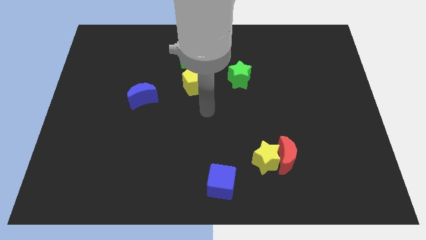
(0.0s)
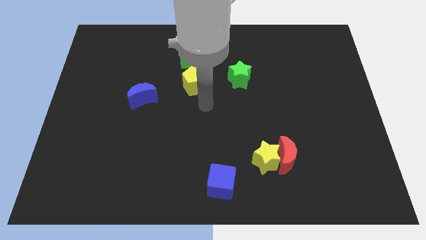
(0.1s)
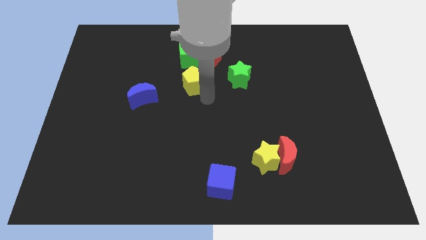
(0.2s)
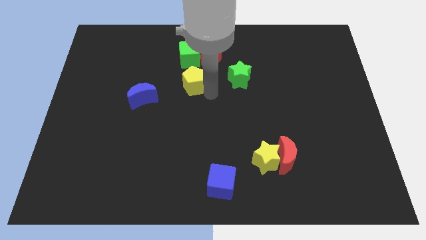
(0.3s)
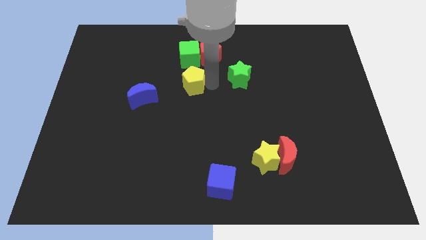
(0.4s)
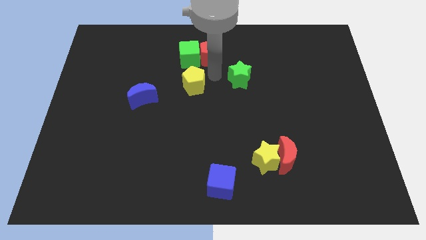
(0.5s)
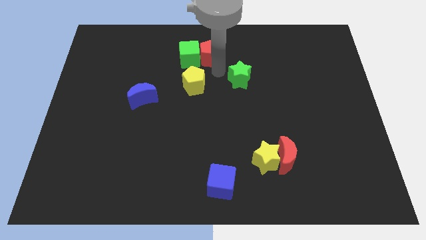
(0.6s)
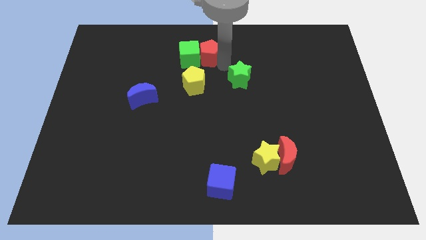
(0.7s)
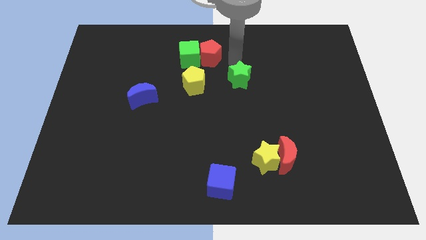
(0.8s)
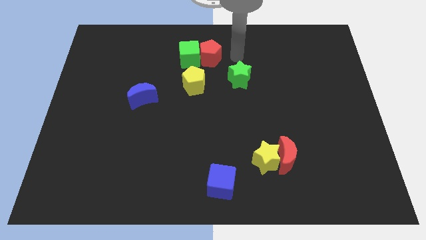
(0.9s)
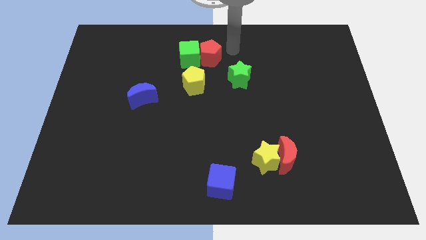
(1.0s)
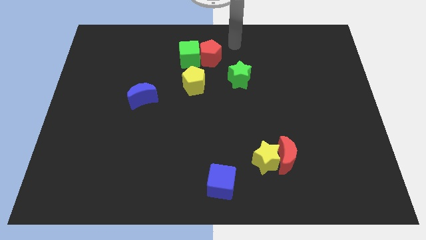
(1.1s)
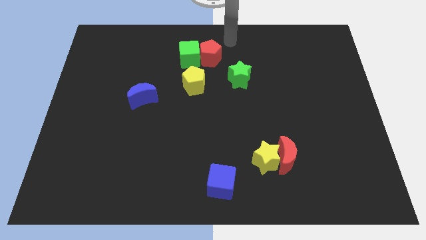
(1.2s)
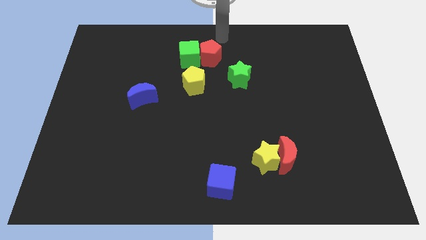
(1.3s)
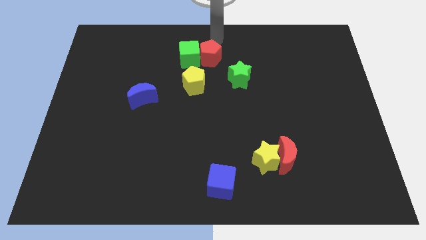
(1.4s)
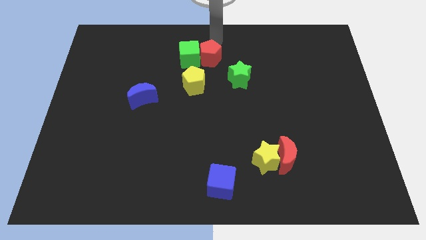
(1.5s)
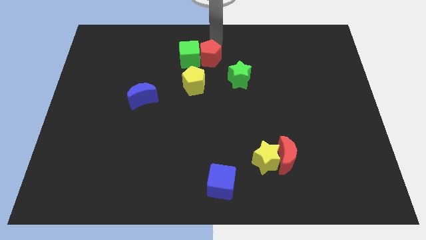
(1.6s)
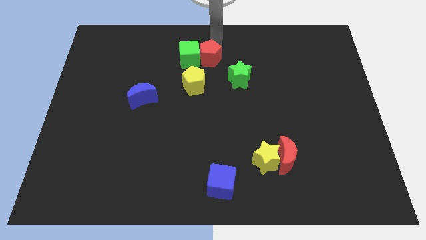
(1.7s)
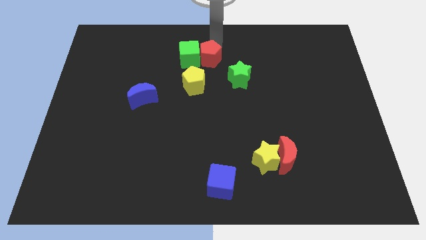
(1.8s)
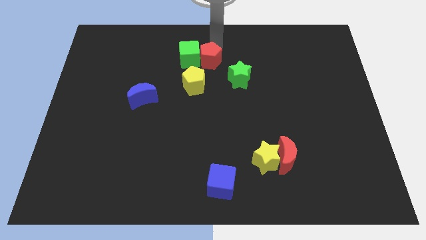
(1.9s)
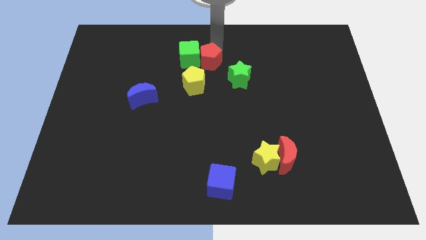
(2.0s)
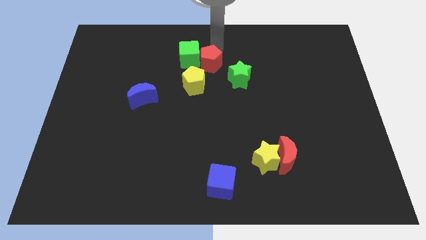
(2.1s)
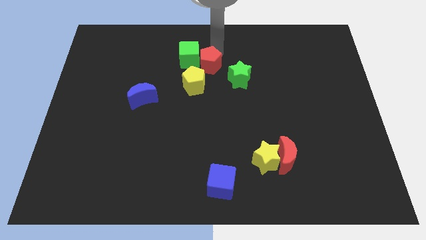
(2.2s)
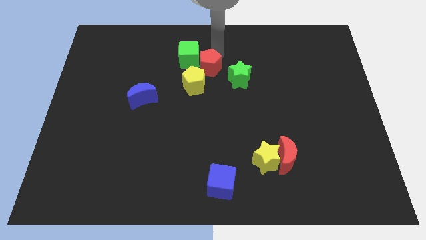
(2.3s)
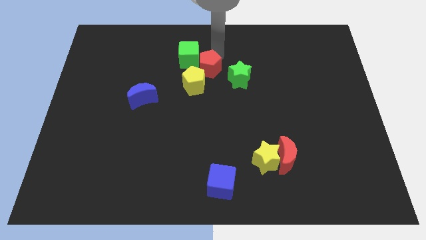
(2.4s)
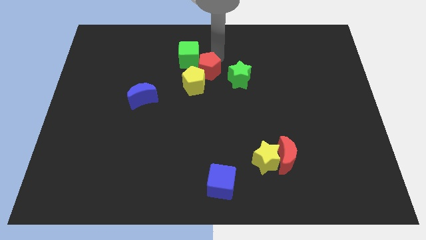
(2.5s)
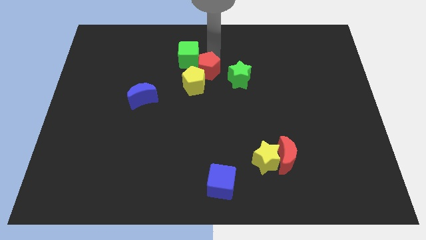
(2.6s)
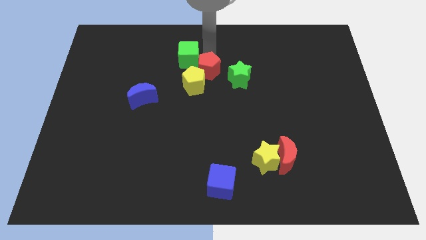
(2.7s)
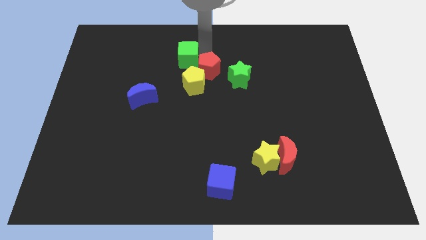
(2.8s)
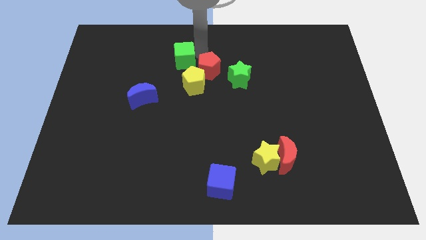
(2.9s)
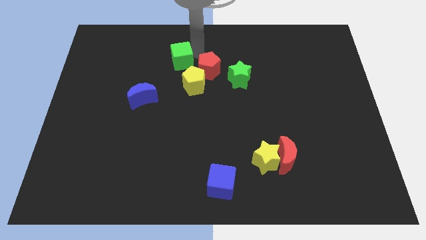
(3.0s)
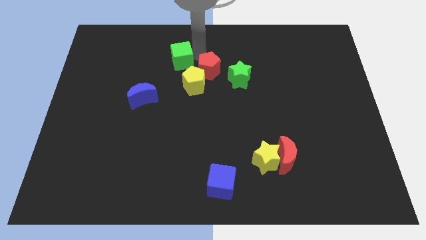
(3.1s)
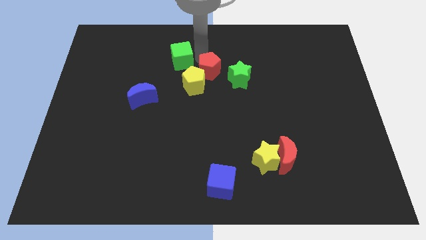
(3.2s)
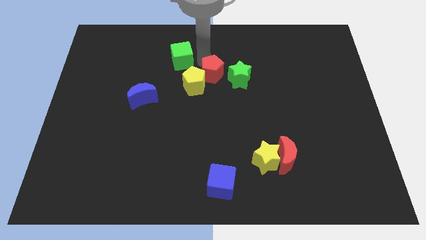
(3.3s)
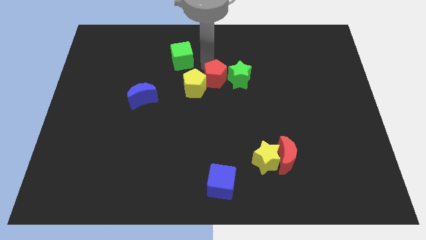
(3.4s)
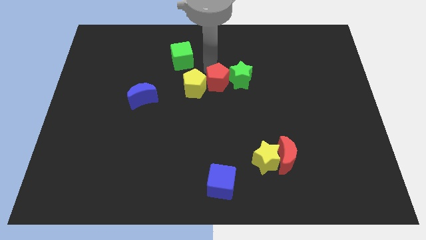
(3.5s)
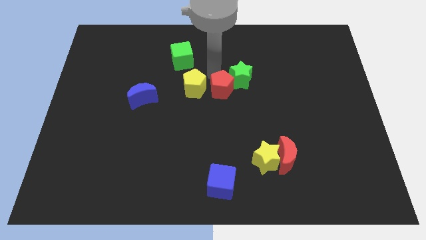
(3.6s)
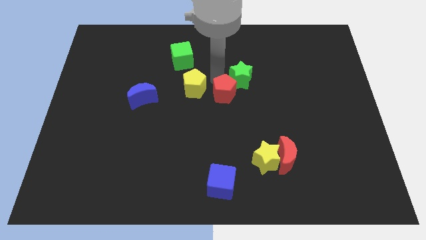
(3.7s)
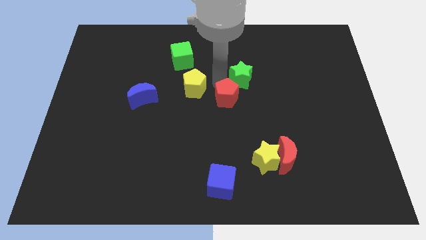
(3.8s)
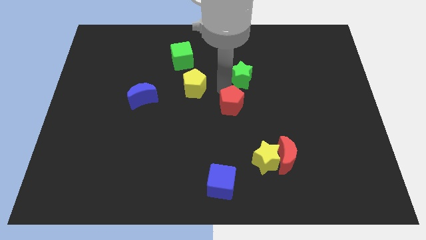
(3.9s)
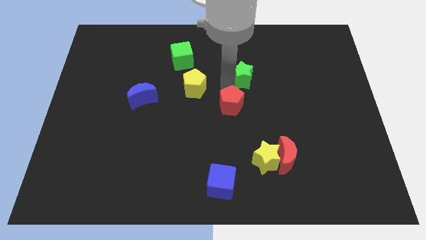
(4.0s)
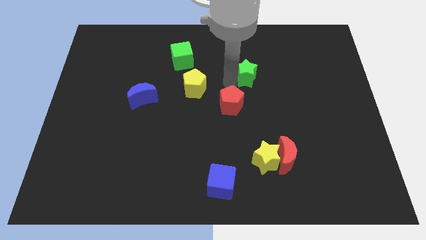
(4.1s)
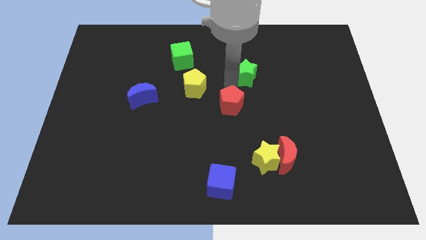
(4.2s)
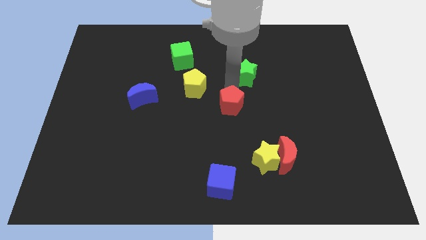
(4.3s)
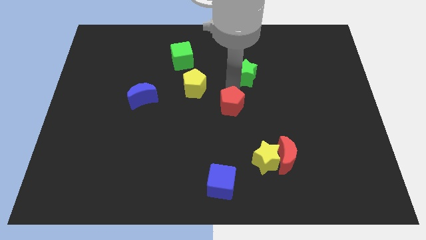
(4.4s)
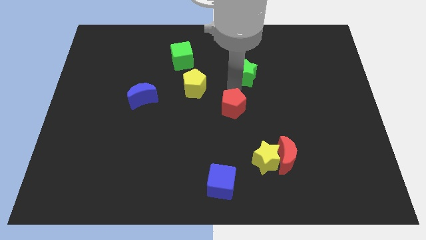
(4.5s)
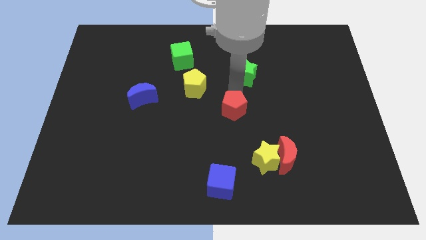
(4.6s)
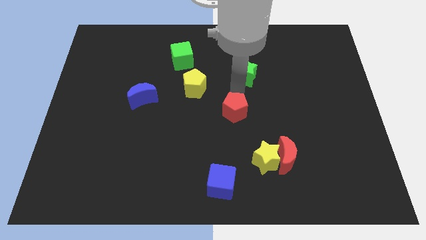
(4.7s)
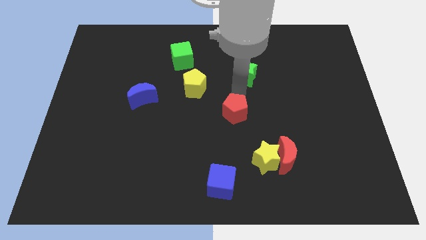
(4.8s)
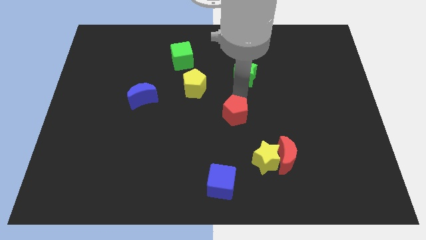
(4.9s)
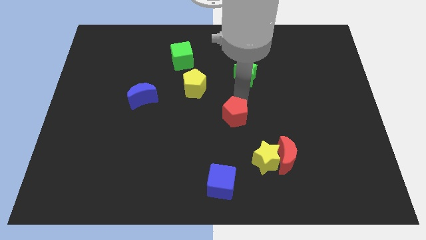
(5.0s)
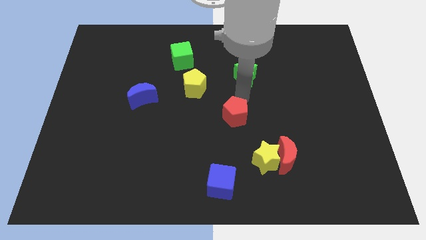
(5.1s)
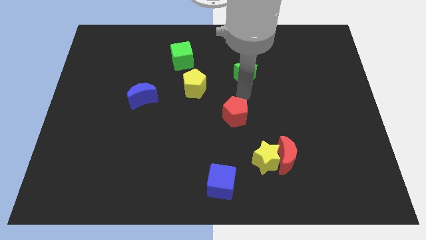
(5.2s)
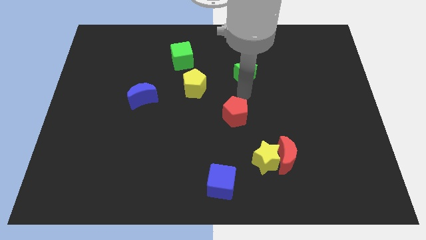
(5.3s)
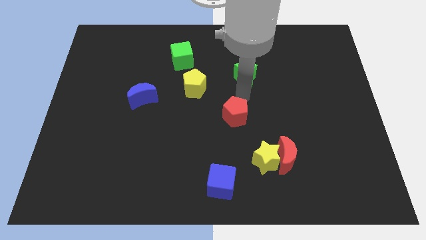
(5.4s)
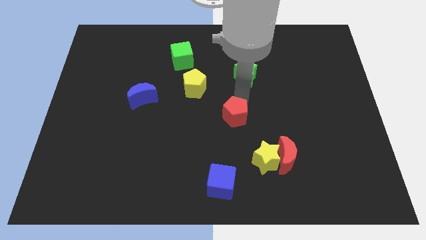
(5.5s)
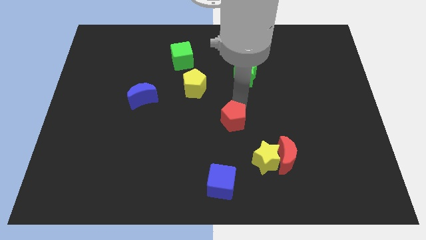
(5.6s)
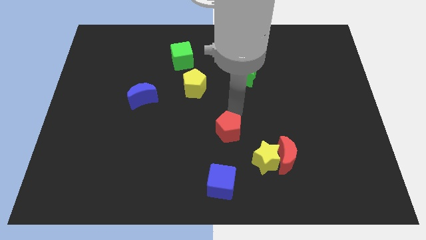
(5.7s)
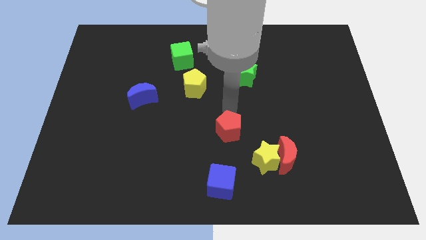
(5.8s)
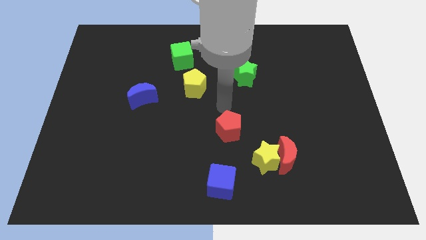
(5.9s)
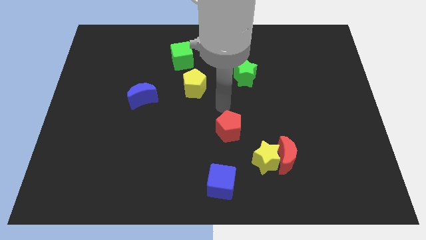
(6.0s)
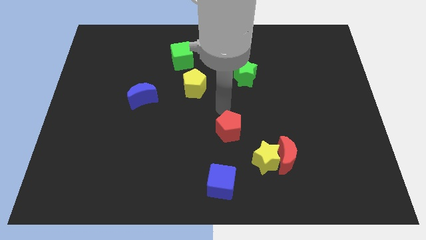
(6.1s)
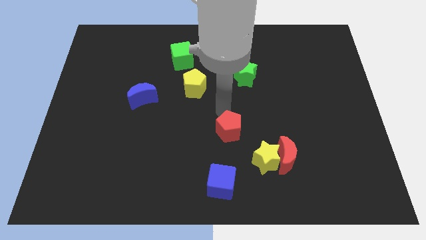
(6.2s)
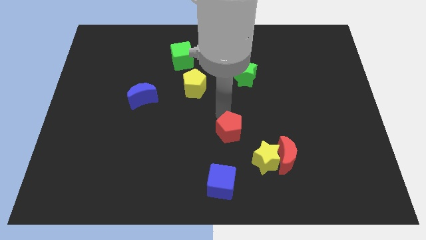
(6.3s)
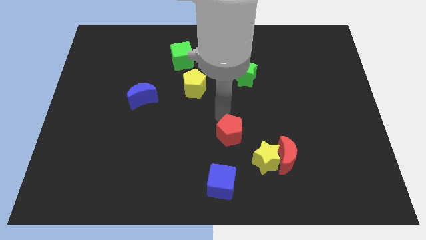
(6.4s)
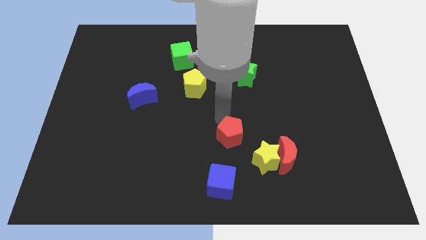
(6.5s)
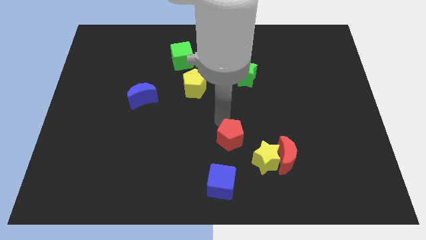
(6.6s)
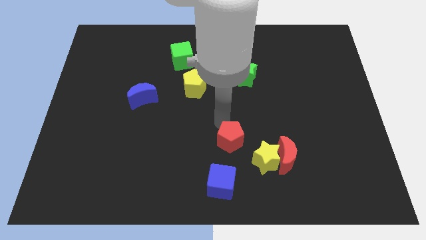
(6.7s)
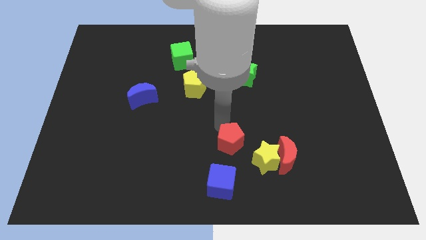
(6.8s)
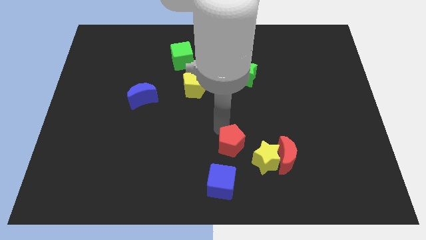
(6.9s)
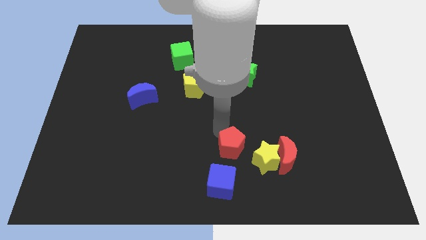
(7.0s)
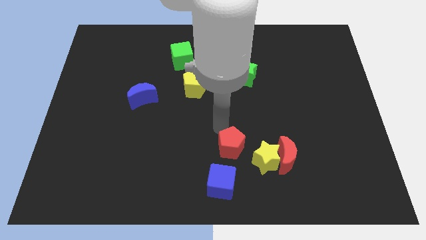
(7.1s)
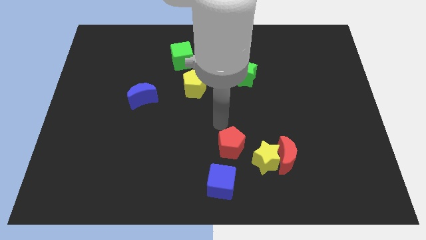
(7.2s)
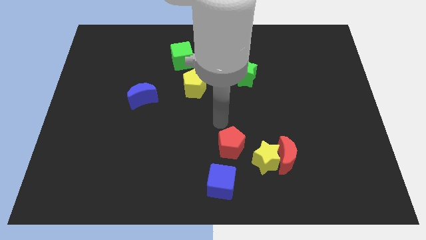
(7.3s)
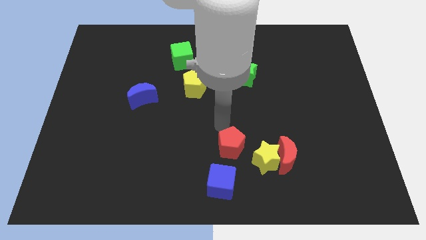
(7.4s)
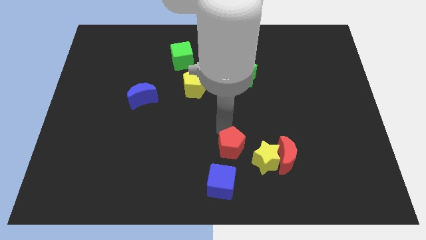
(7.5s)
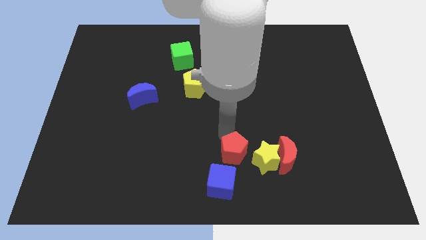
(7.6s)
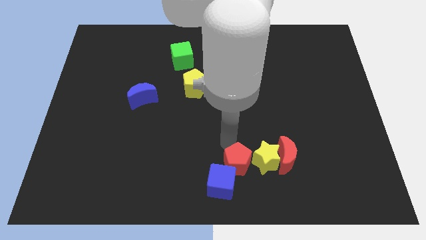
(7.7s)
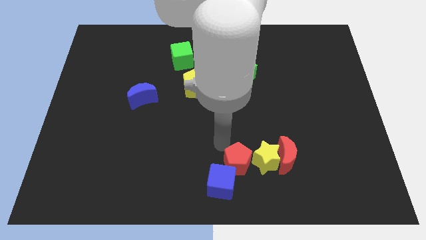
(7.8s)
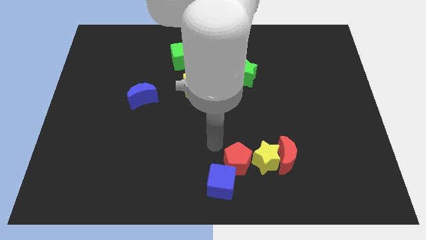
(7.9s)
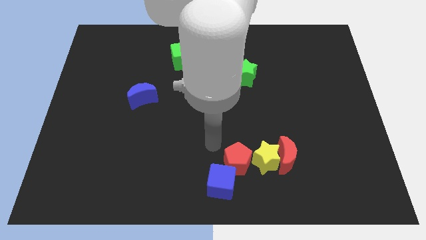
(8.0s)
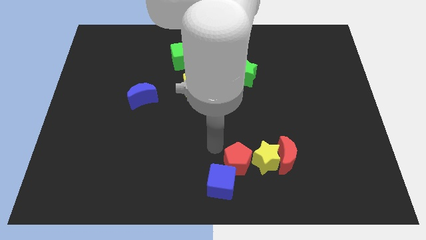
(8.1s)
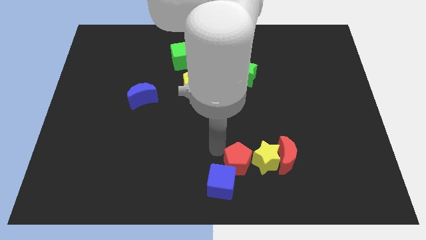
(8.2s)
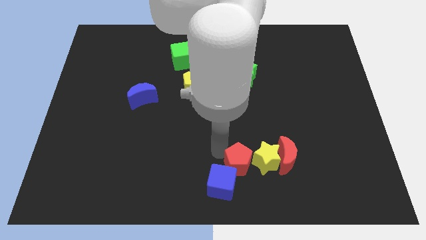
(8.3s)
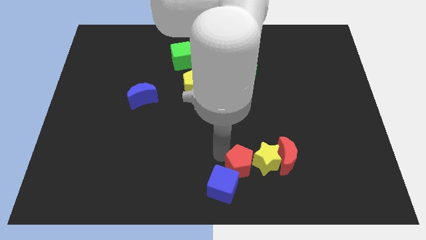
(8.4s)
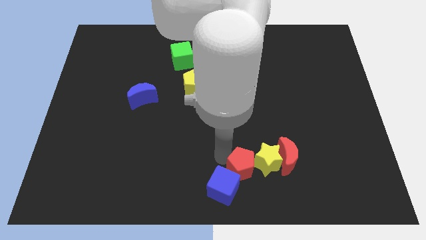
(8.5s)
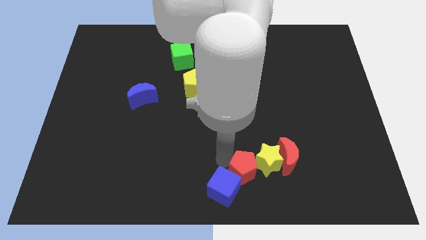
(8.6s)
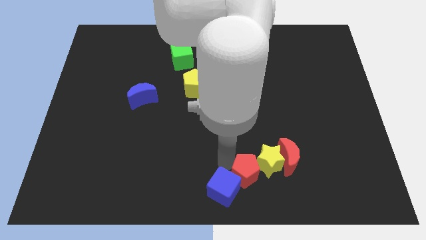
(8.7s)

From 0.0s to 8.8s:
move the red pentagon diagonally down and to the left of the red moon
